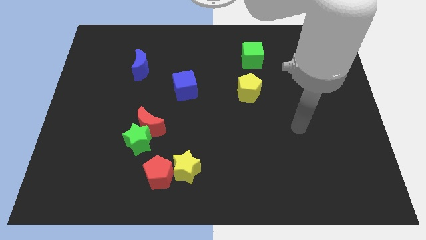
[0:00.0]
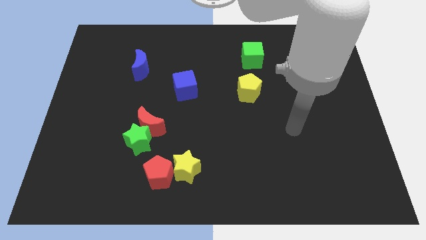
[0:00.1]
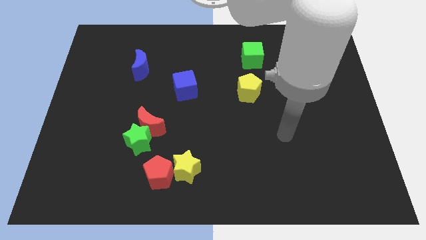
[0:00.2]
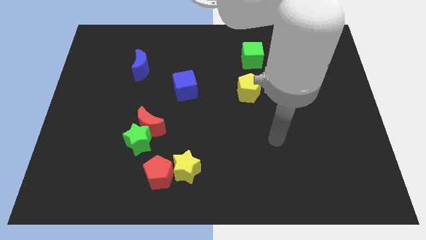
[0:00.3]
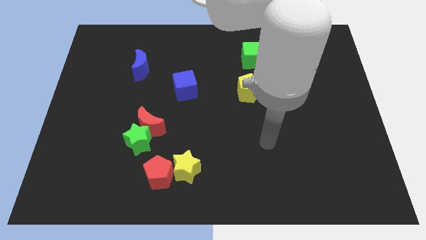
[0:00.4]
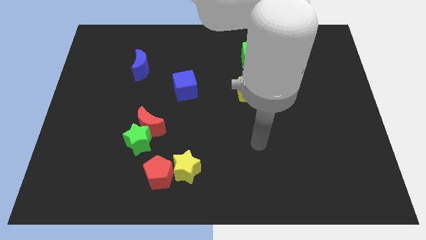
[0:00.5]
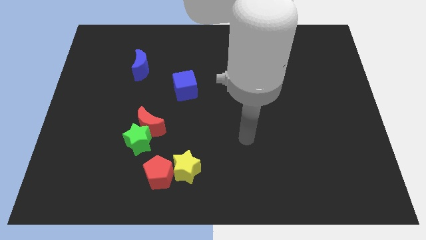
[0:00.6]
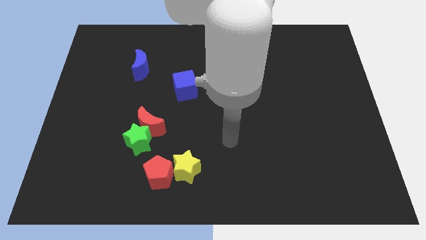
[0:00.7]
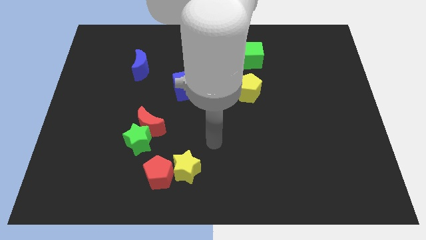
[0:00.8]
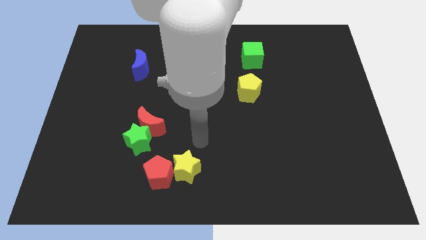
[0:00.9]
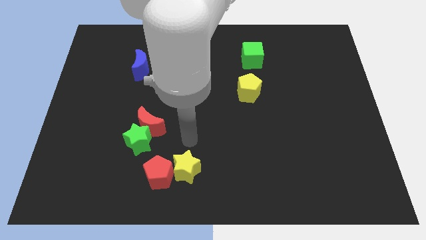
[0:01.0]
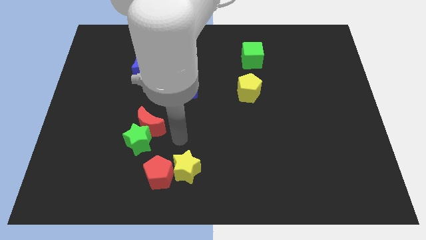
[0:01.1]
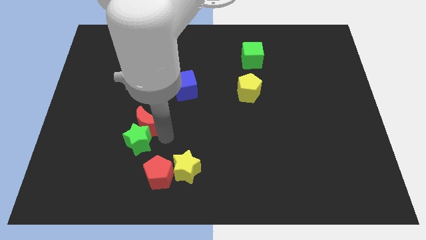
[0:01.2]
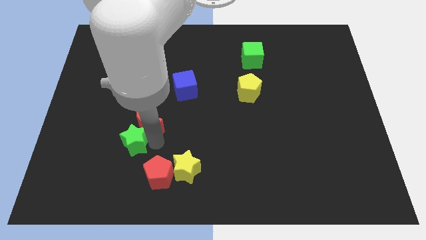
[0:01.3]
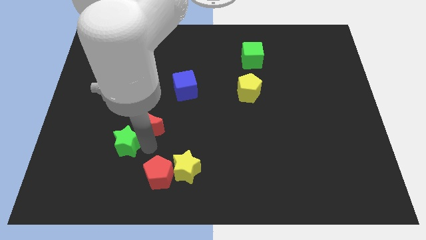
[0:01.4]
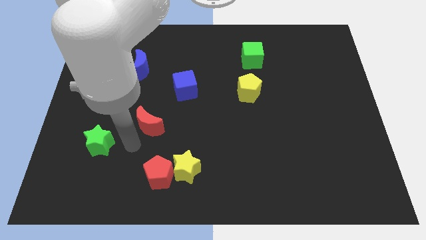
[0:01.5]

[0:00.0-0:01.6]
move the red moon away from the green star

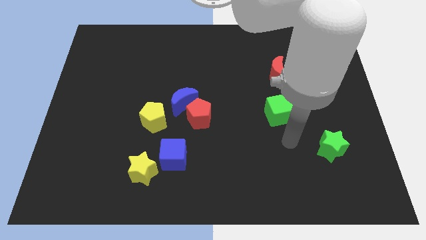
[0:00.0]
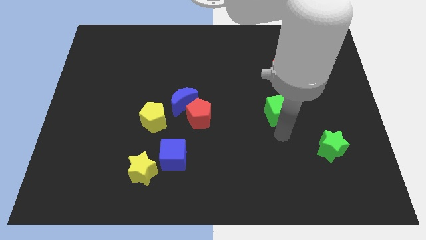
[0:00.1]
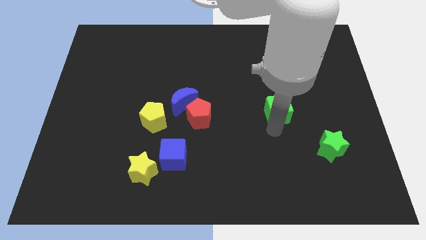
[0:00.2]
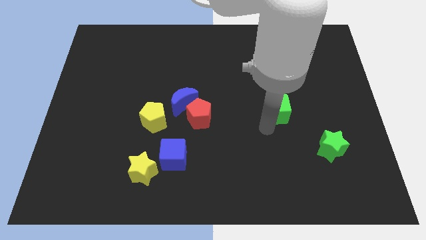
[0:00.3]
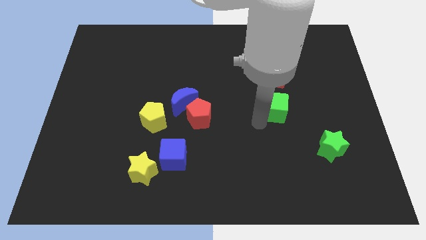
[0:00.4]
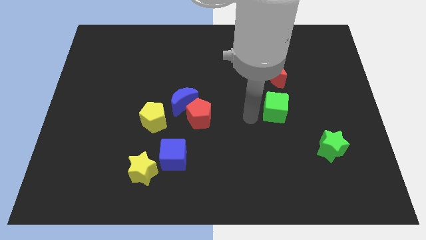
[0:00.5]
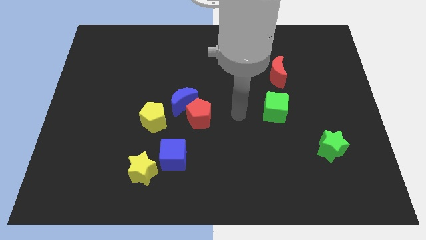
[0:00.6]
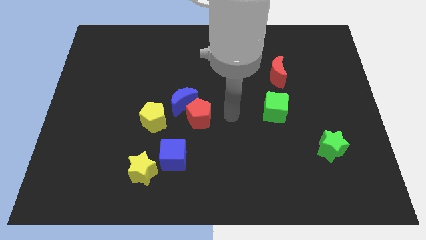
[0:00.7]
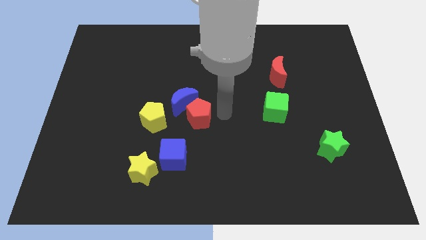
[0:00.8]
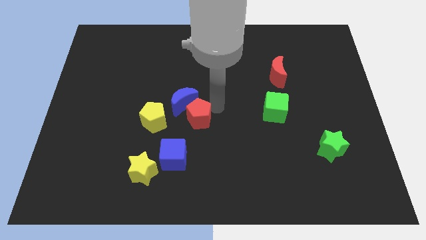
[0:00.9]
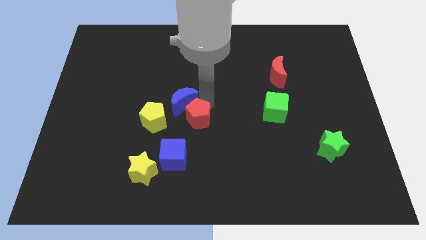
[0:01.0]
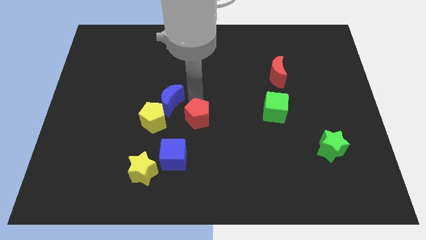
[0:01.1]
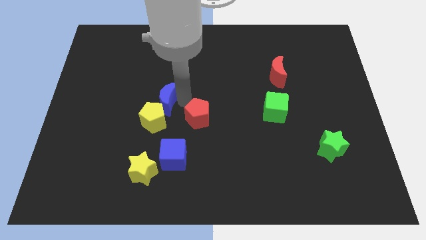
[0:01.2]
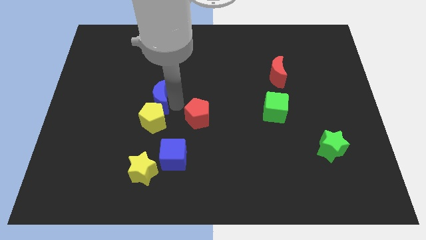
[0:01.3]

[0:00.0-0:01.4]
pull the red pentagon apart from the blue moon

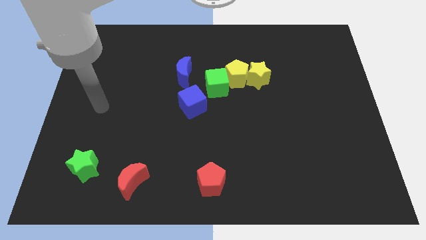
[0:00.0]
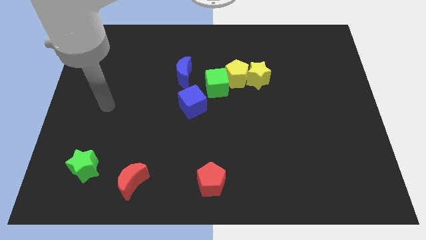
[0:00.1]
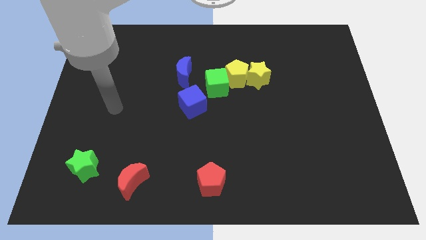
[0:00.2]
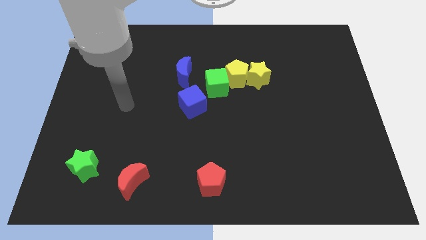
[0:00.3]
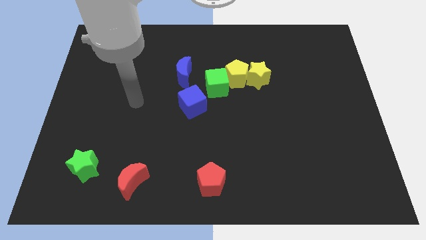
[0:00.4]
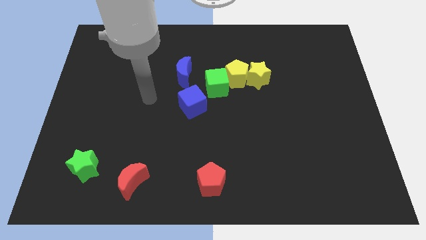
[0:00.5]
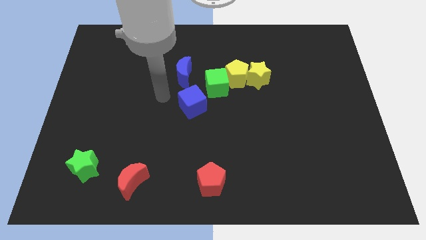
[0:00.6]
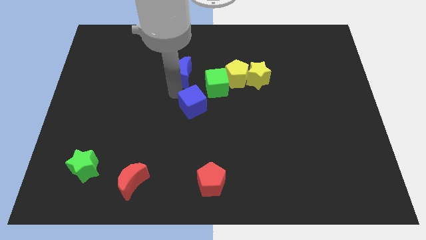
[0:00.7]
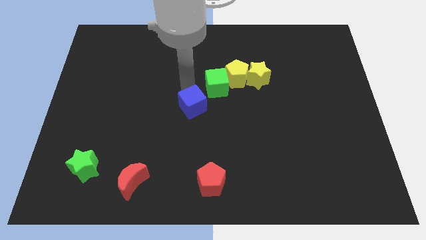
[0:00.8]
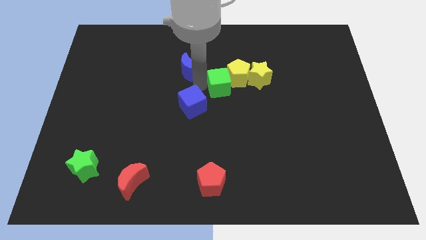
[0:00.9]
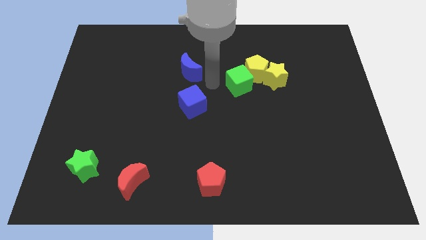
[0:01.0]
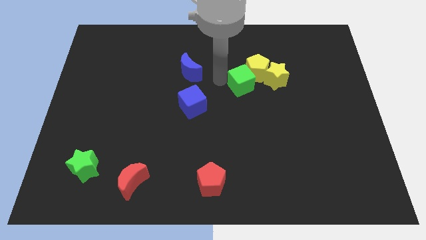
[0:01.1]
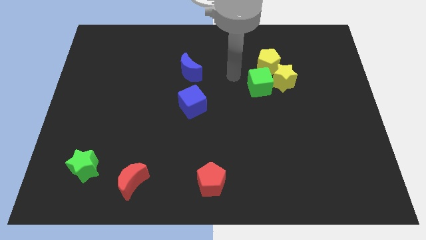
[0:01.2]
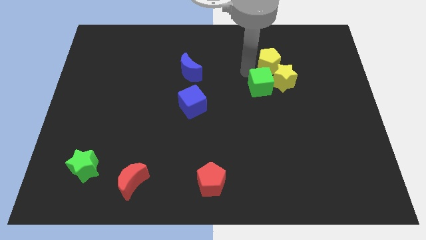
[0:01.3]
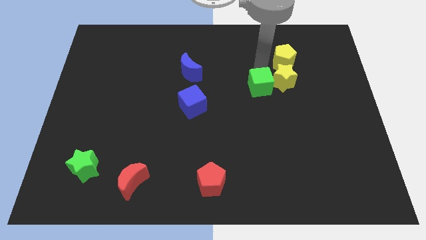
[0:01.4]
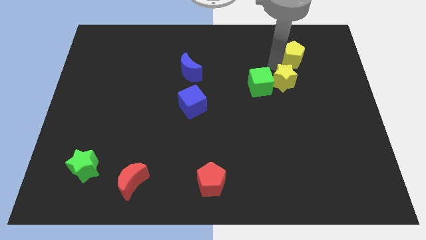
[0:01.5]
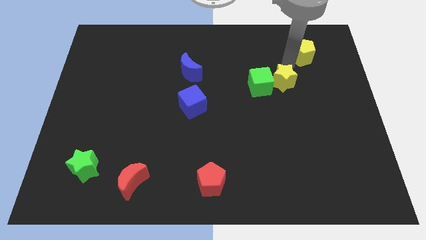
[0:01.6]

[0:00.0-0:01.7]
separate the yellow star from the yellow pentagon

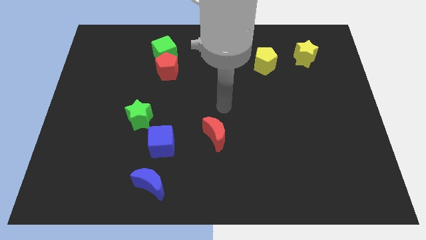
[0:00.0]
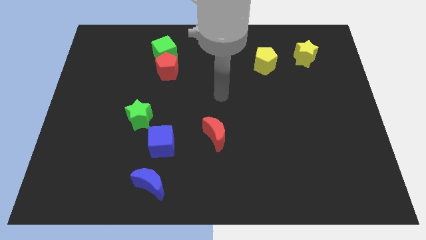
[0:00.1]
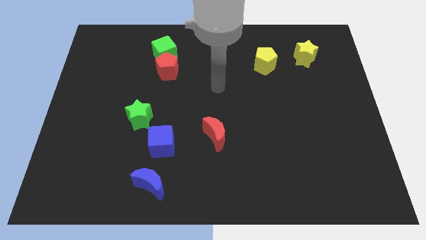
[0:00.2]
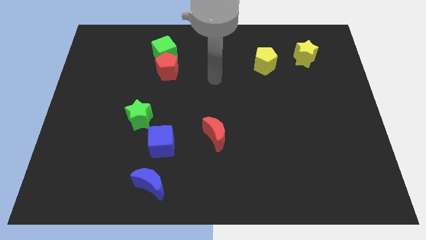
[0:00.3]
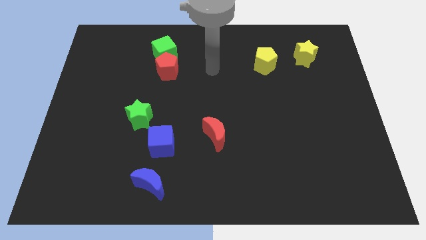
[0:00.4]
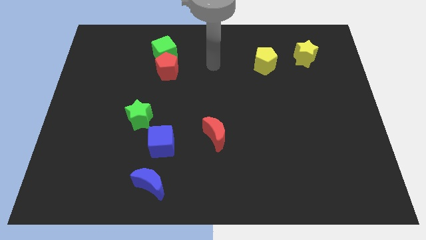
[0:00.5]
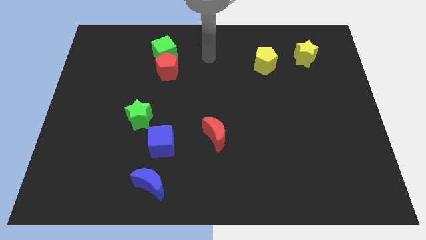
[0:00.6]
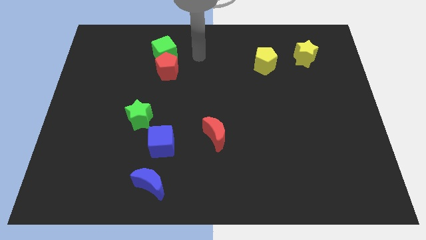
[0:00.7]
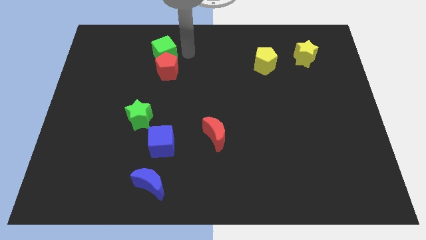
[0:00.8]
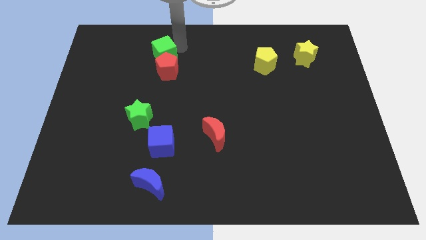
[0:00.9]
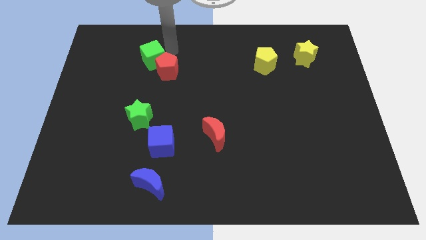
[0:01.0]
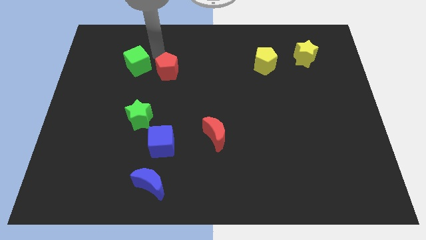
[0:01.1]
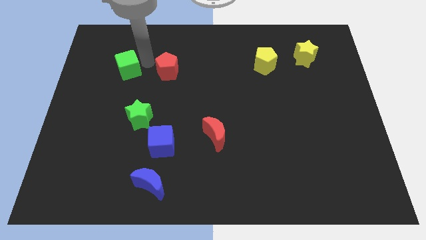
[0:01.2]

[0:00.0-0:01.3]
pull the red pentagon apart from the green cube

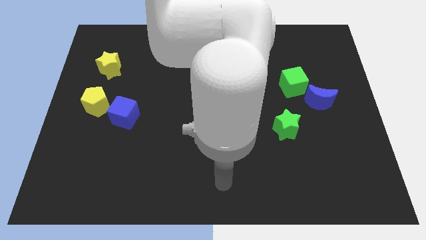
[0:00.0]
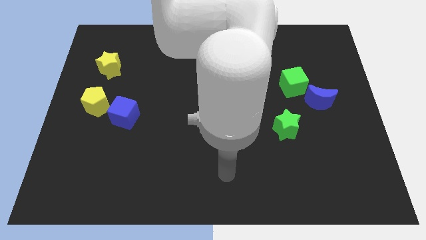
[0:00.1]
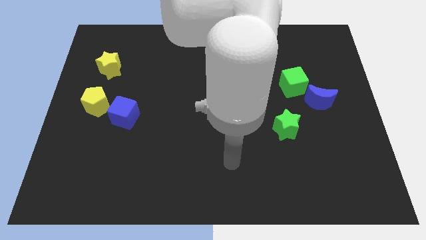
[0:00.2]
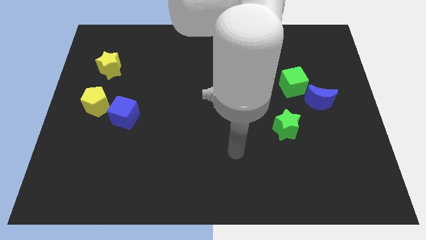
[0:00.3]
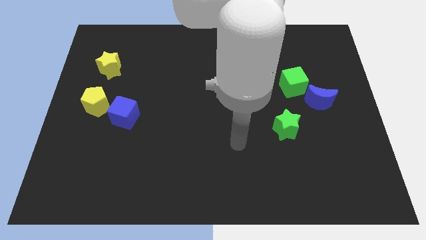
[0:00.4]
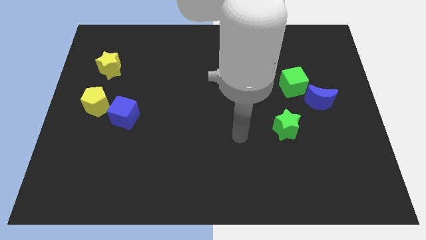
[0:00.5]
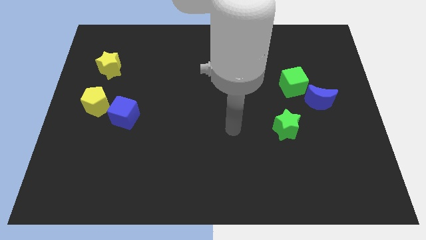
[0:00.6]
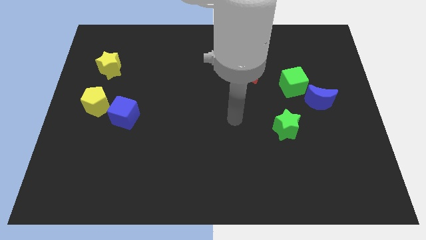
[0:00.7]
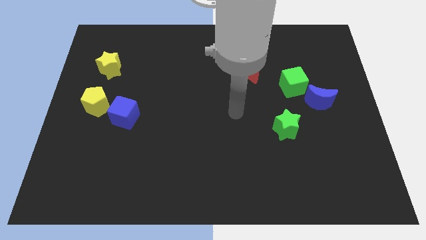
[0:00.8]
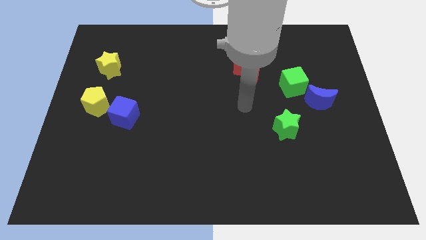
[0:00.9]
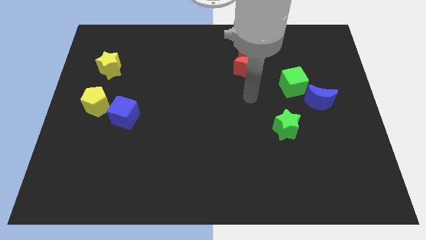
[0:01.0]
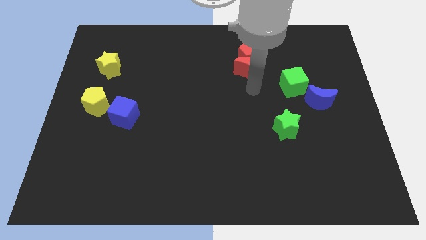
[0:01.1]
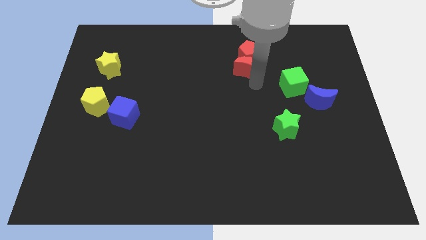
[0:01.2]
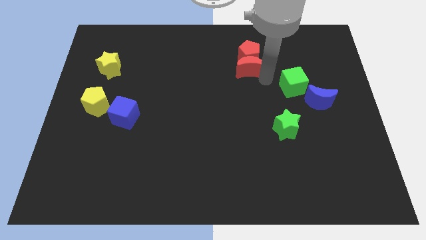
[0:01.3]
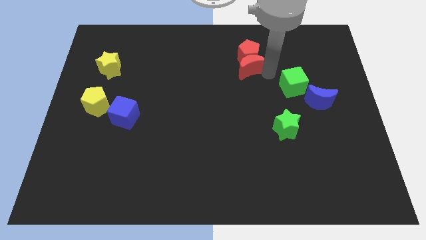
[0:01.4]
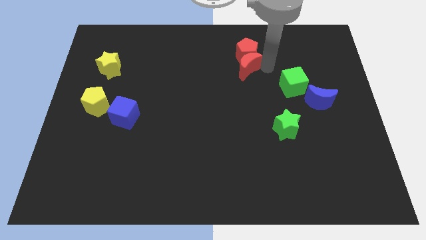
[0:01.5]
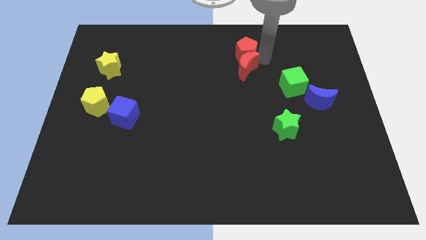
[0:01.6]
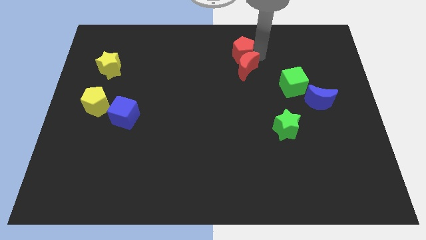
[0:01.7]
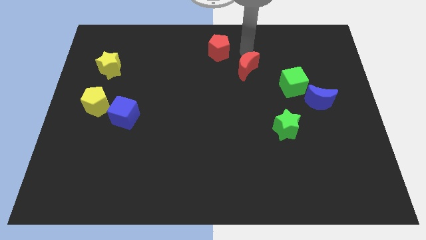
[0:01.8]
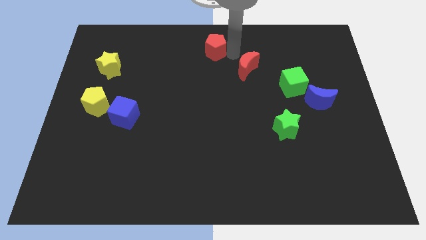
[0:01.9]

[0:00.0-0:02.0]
move the red moon away from the red pentagon

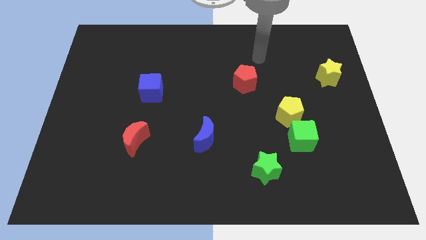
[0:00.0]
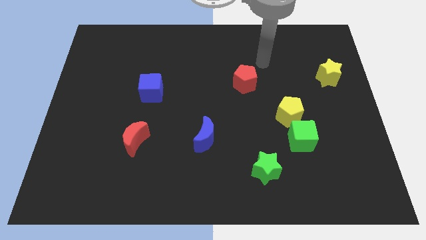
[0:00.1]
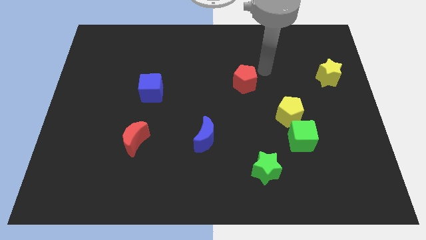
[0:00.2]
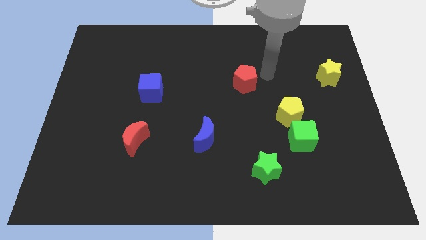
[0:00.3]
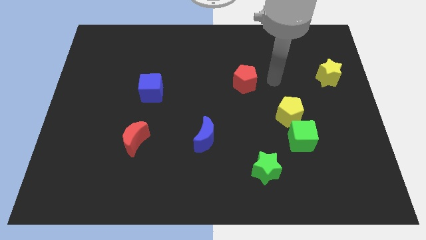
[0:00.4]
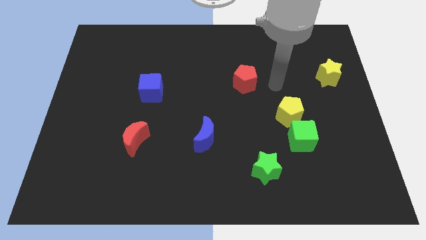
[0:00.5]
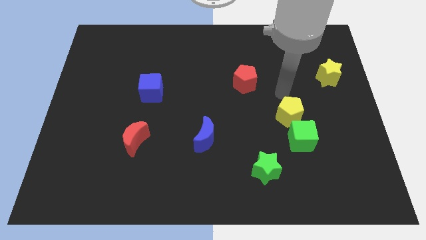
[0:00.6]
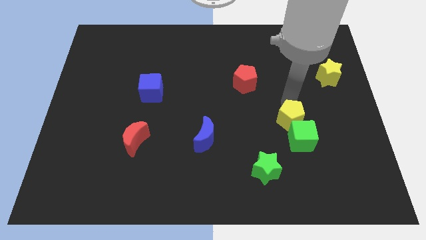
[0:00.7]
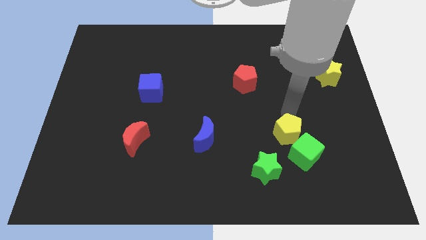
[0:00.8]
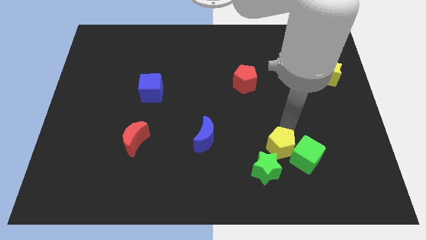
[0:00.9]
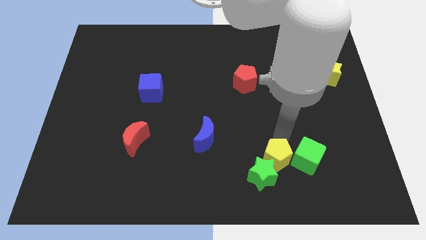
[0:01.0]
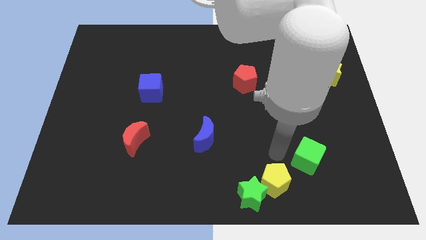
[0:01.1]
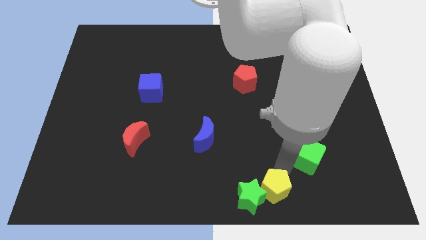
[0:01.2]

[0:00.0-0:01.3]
separate the green cube from the yellow pentagon
